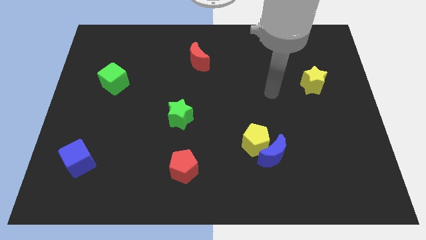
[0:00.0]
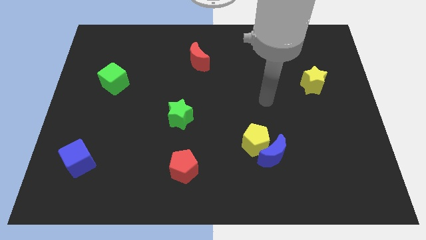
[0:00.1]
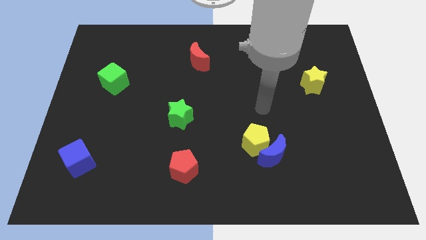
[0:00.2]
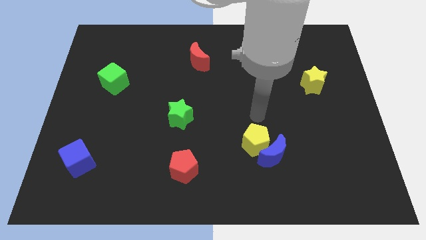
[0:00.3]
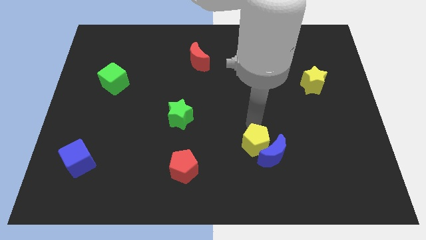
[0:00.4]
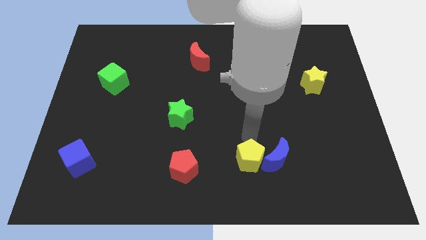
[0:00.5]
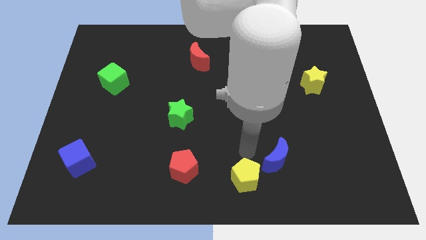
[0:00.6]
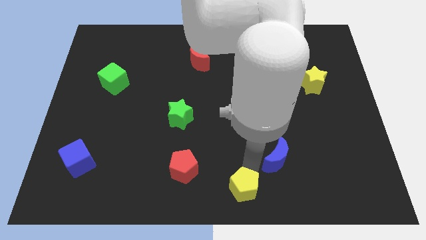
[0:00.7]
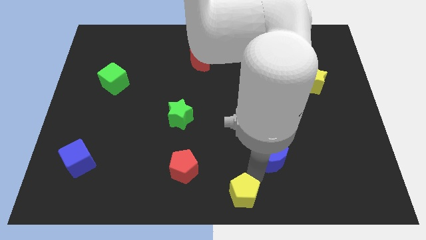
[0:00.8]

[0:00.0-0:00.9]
move the blue moon away from the yellow pentagon

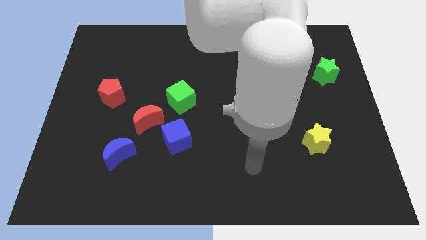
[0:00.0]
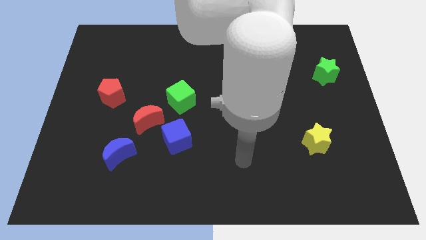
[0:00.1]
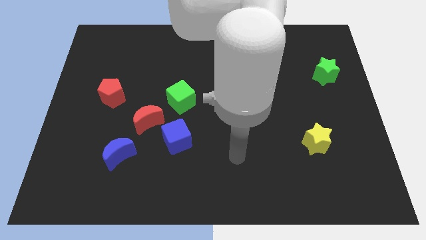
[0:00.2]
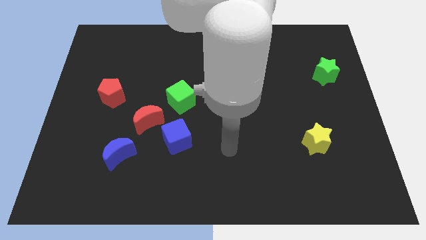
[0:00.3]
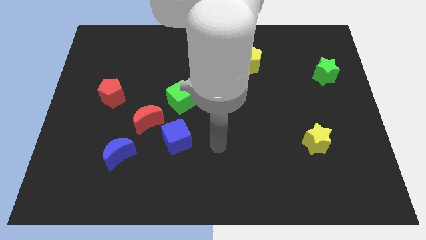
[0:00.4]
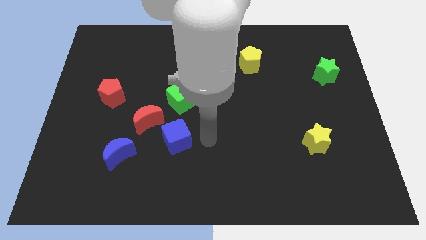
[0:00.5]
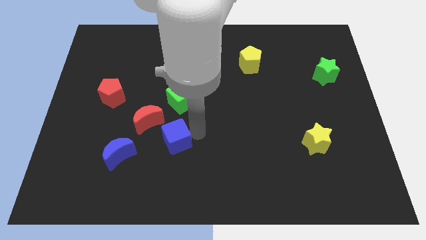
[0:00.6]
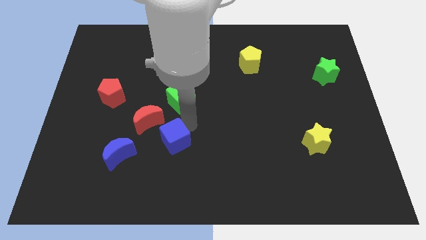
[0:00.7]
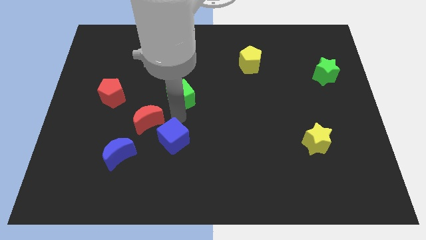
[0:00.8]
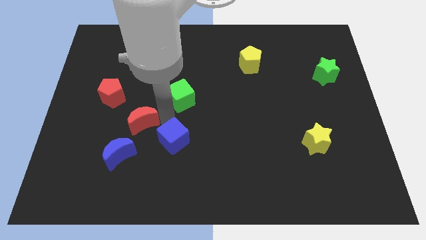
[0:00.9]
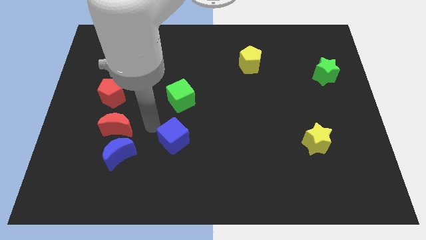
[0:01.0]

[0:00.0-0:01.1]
pull the blue cube apart from the red moon

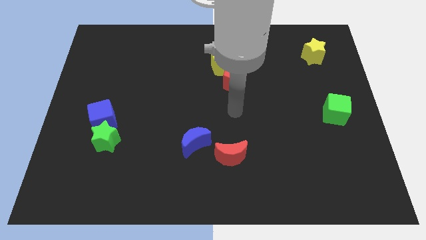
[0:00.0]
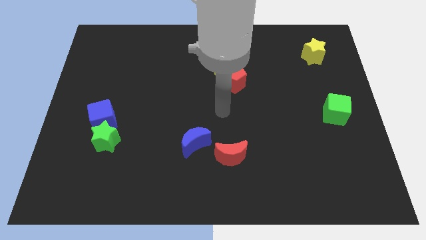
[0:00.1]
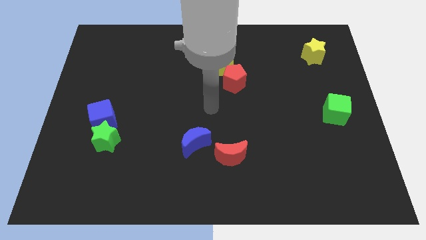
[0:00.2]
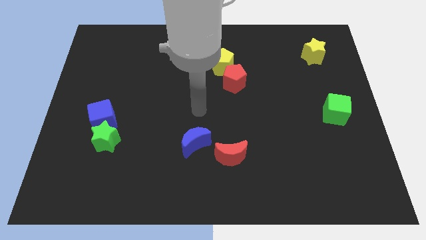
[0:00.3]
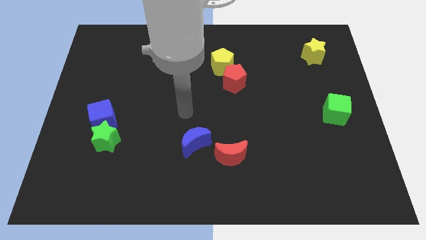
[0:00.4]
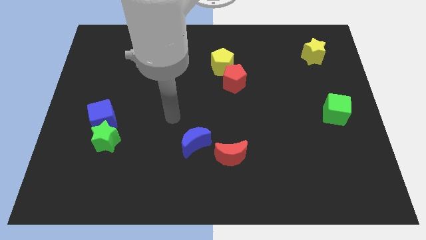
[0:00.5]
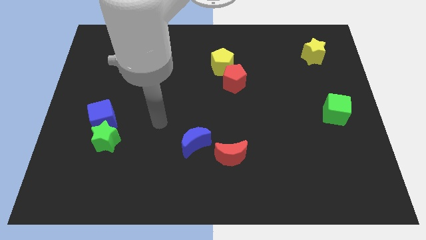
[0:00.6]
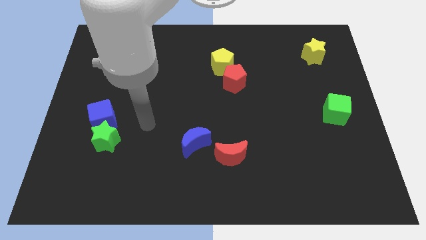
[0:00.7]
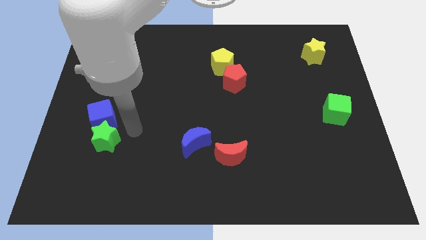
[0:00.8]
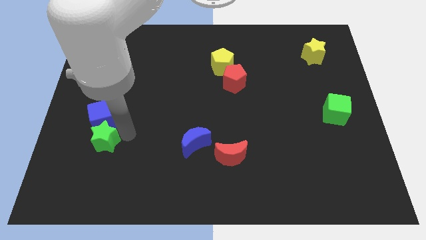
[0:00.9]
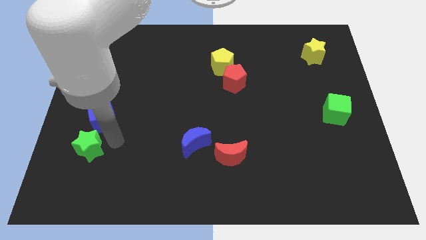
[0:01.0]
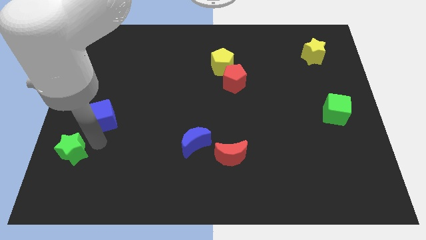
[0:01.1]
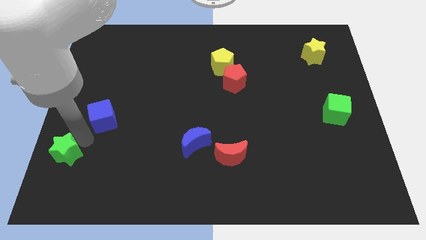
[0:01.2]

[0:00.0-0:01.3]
move the blue cube away from the green star

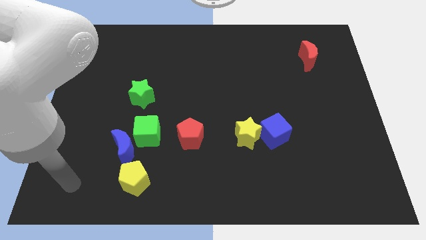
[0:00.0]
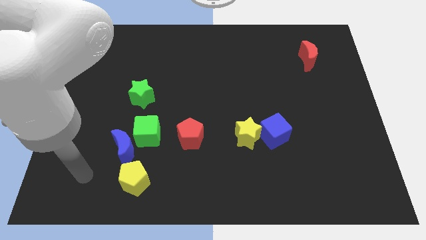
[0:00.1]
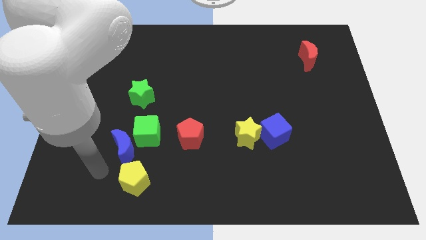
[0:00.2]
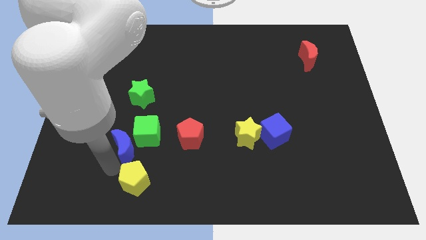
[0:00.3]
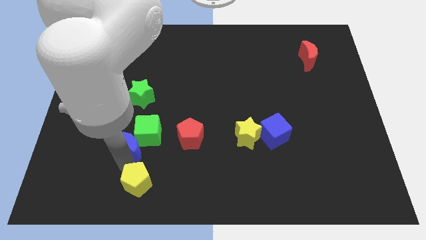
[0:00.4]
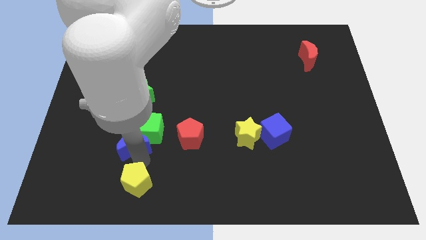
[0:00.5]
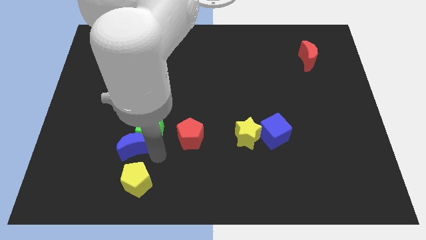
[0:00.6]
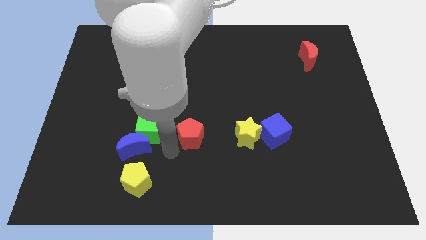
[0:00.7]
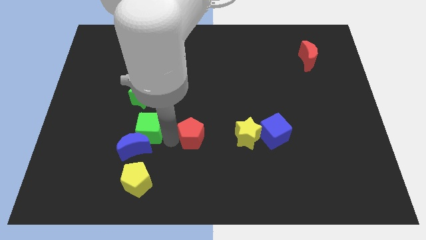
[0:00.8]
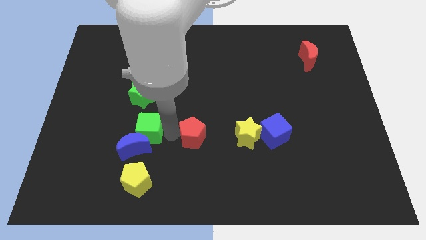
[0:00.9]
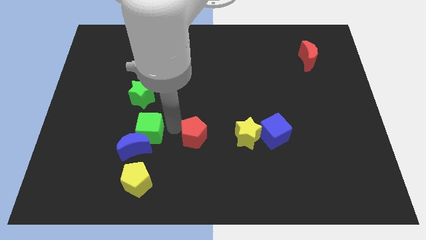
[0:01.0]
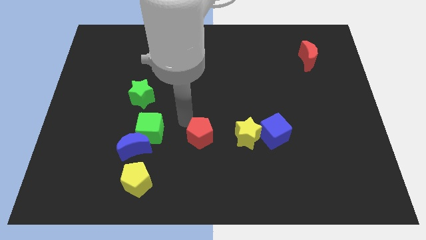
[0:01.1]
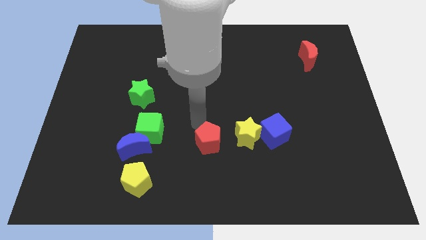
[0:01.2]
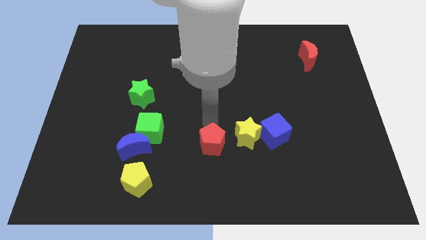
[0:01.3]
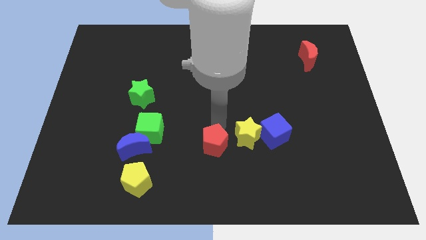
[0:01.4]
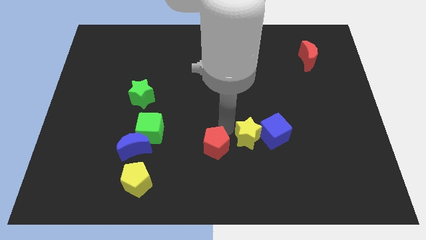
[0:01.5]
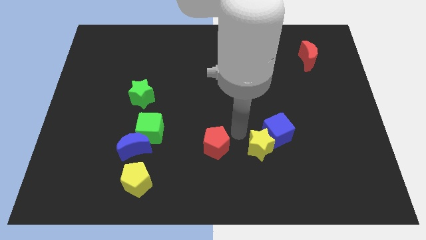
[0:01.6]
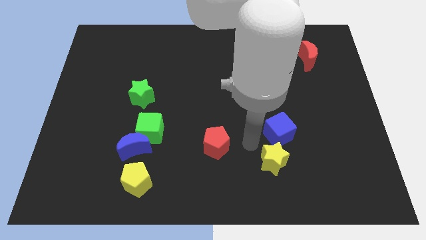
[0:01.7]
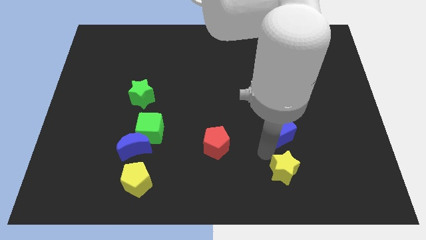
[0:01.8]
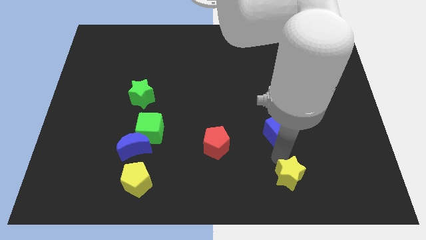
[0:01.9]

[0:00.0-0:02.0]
move the blue cube away from the yellow star

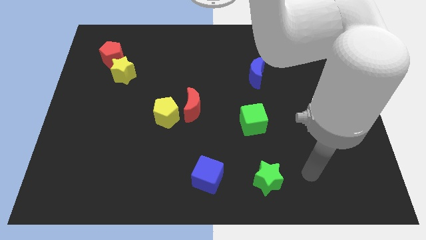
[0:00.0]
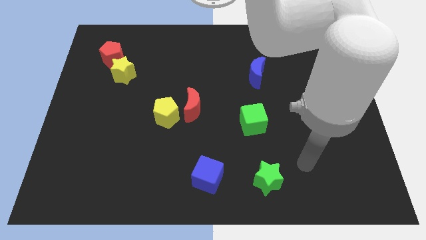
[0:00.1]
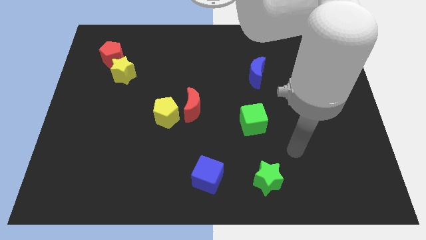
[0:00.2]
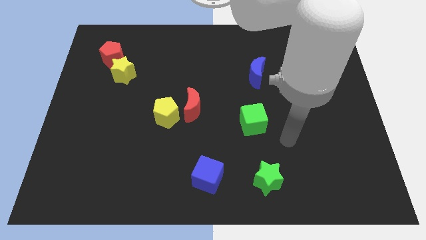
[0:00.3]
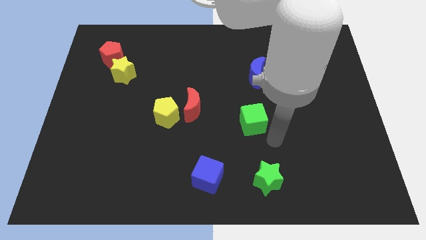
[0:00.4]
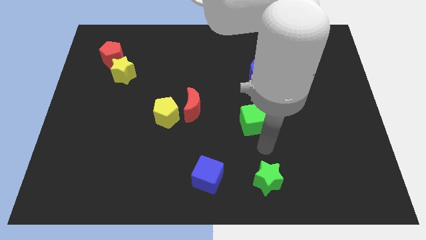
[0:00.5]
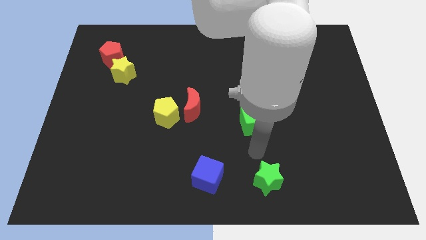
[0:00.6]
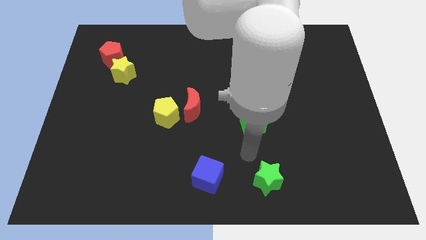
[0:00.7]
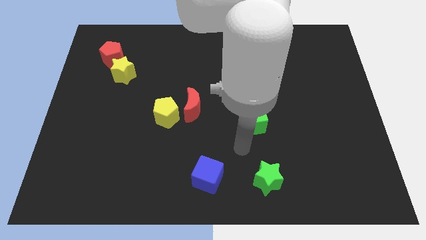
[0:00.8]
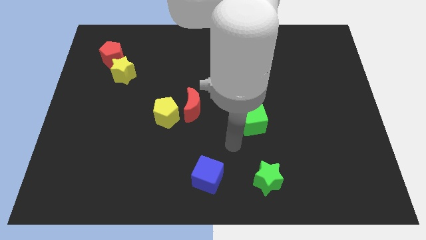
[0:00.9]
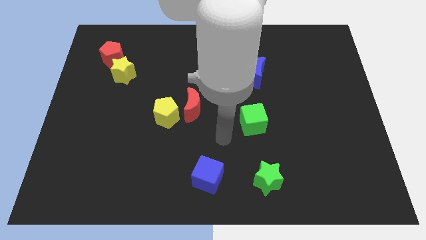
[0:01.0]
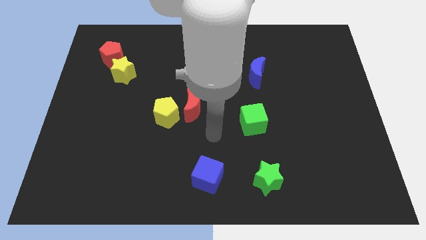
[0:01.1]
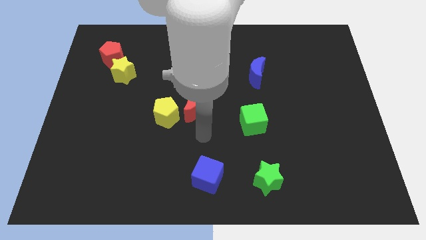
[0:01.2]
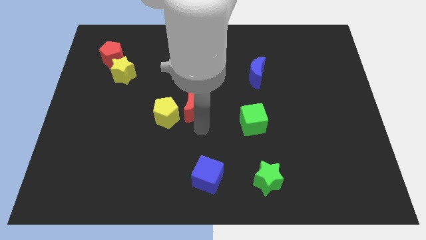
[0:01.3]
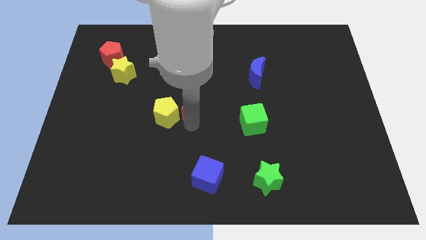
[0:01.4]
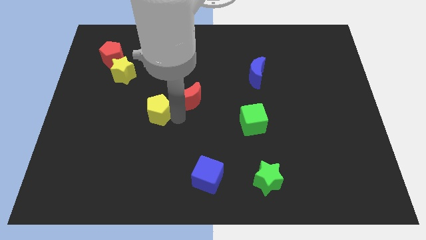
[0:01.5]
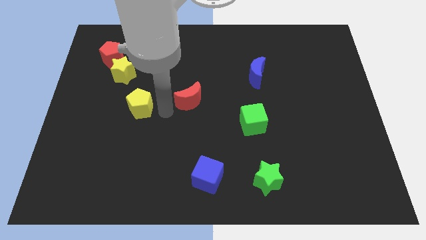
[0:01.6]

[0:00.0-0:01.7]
pull the red moon apart from the yellow pentagon

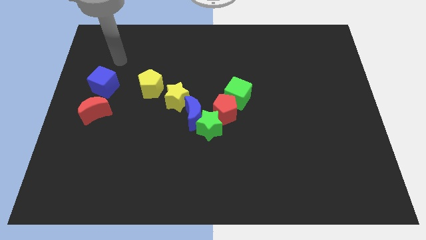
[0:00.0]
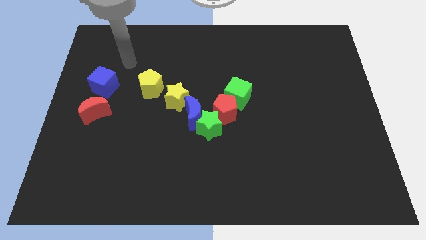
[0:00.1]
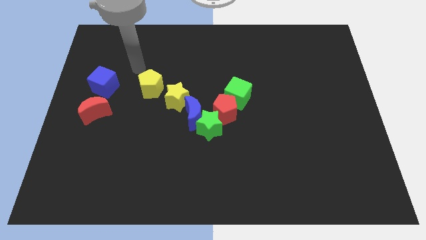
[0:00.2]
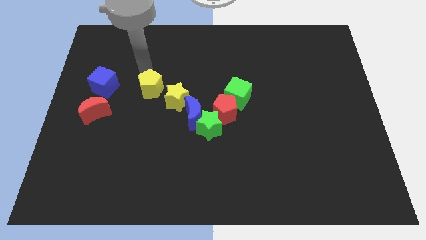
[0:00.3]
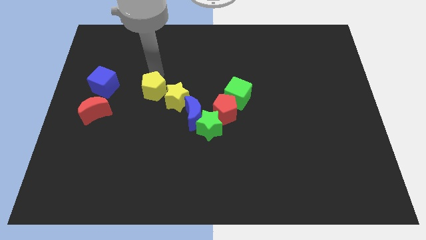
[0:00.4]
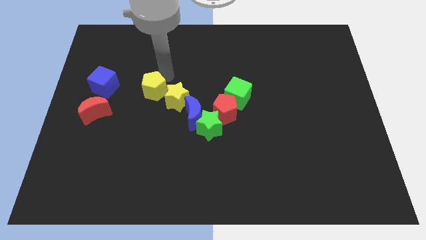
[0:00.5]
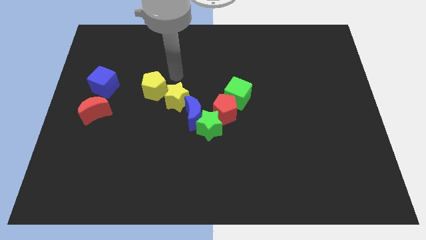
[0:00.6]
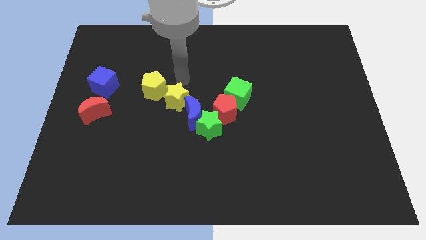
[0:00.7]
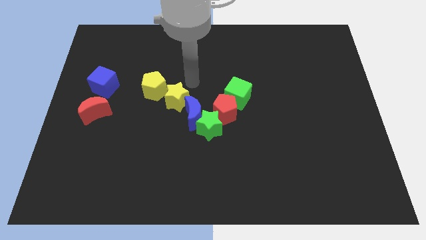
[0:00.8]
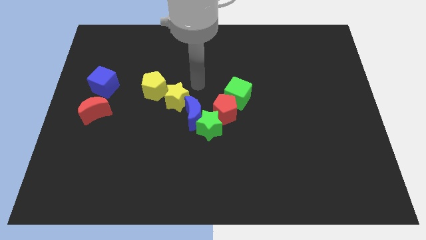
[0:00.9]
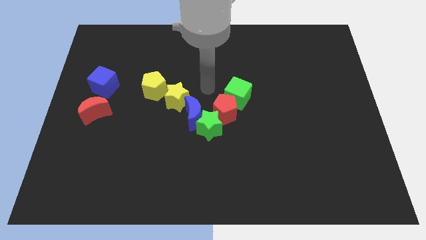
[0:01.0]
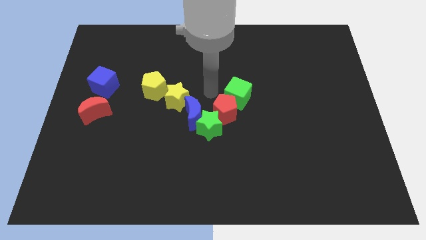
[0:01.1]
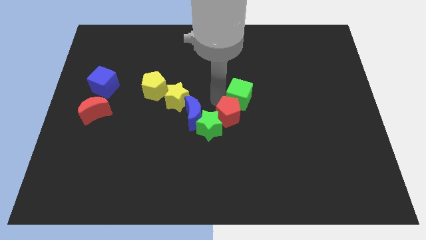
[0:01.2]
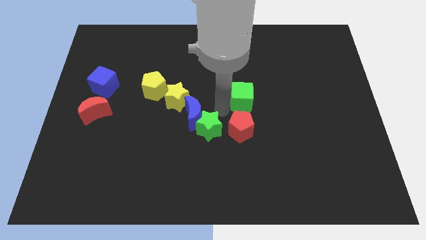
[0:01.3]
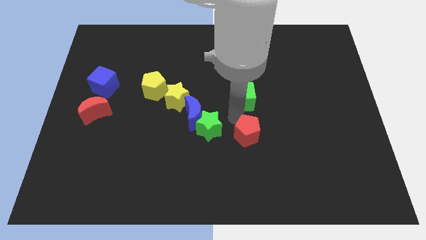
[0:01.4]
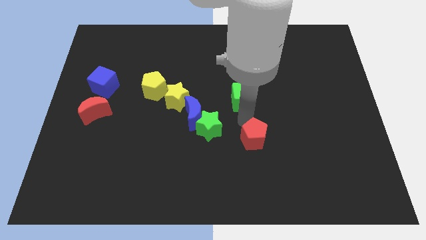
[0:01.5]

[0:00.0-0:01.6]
move the green cube away from the red pentagon

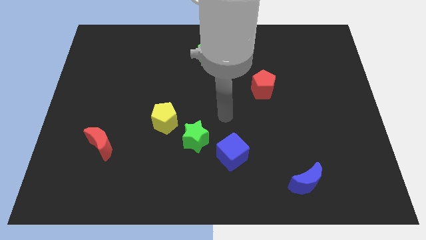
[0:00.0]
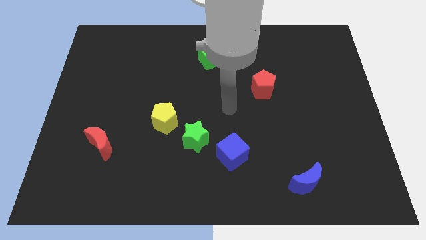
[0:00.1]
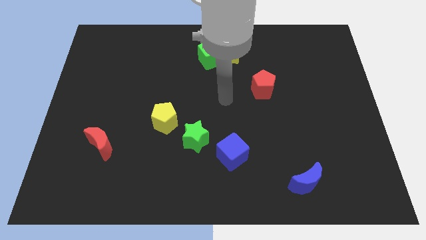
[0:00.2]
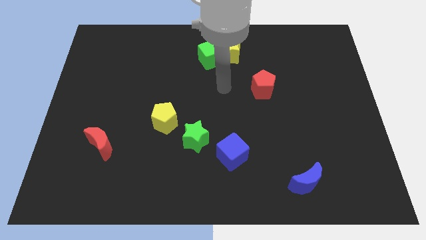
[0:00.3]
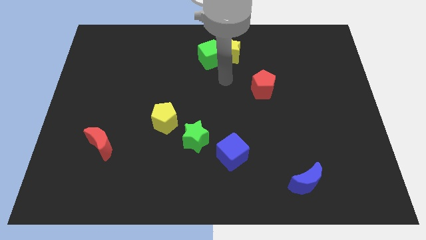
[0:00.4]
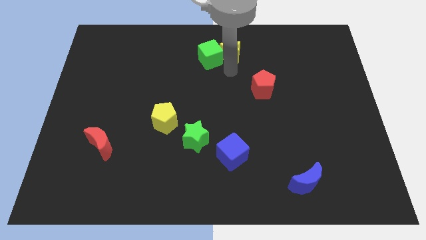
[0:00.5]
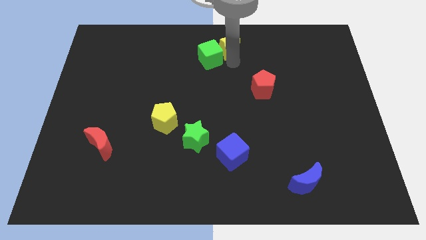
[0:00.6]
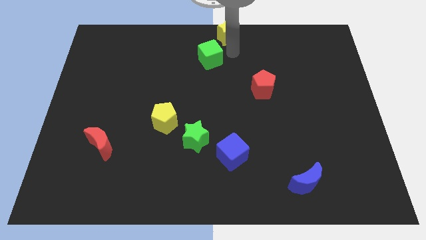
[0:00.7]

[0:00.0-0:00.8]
move the green cube away from the yellow star
